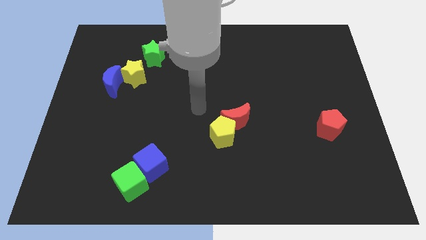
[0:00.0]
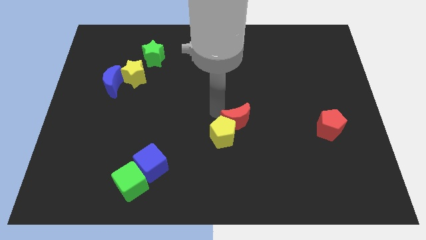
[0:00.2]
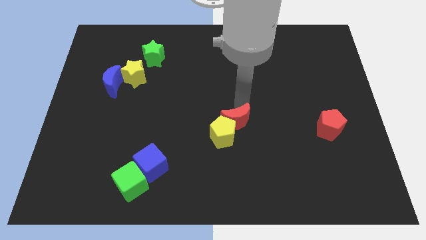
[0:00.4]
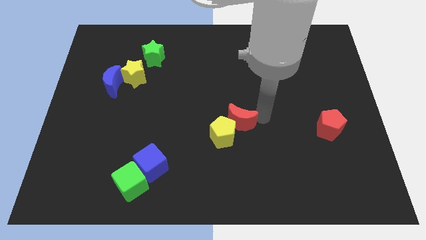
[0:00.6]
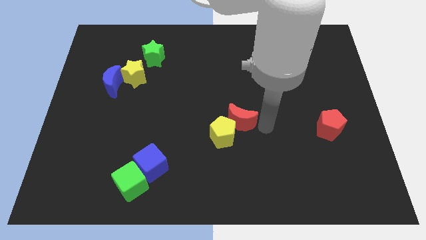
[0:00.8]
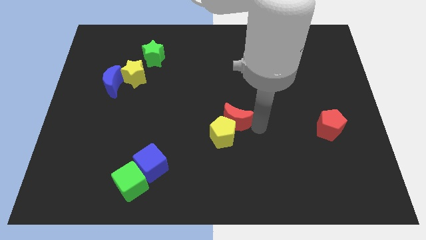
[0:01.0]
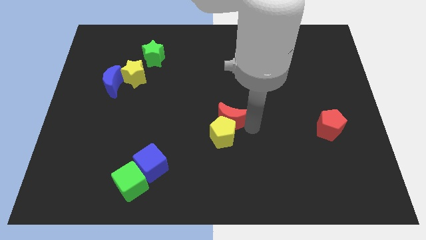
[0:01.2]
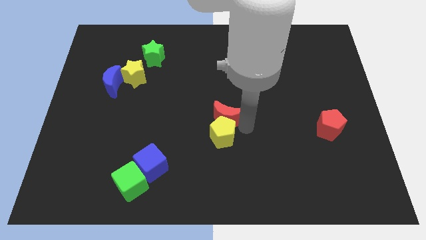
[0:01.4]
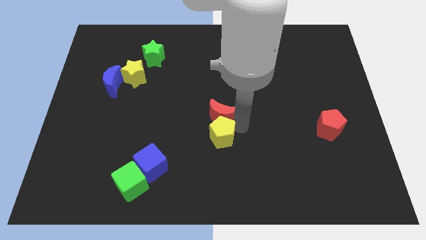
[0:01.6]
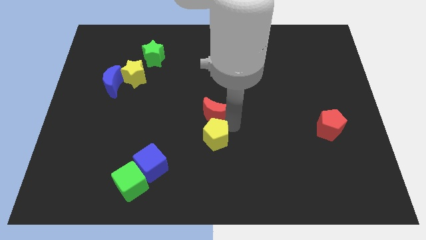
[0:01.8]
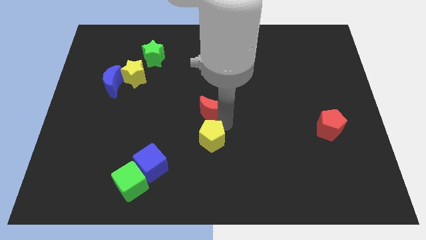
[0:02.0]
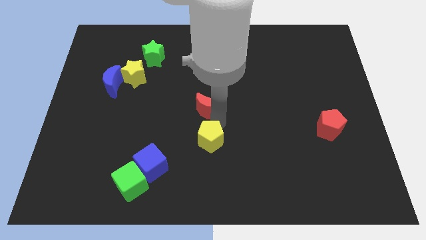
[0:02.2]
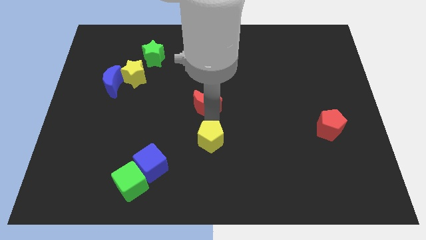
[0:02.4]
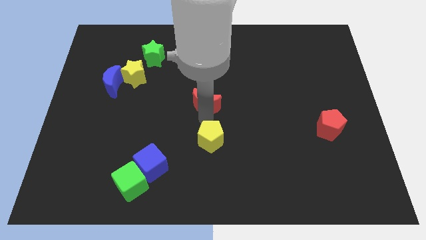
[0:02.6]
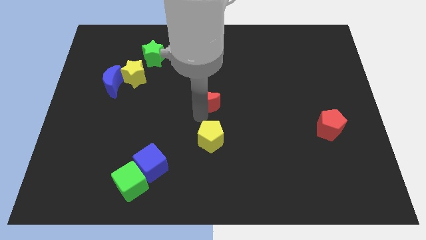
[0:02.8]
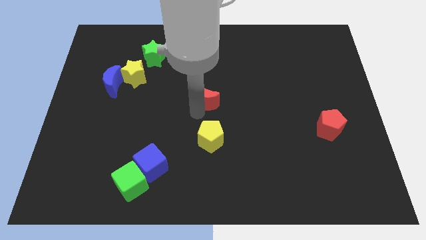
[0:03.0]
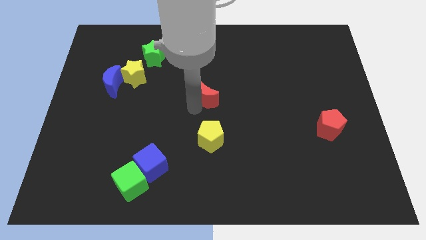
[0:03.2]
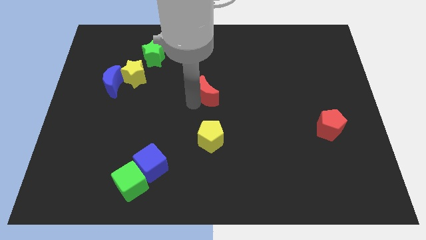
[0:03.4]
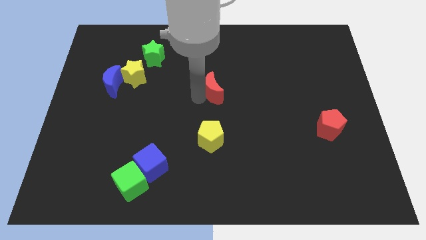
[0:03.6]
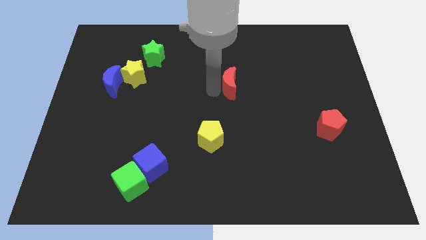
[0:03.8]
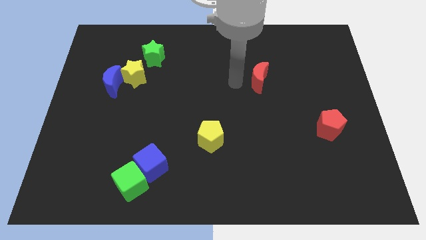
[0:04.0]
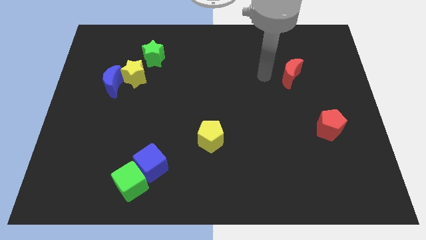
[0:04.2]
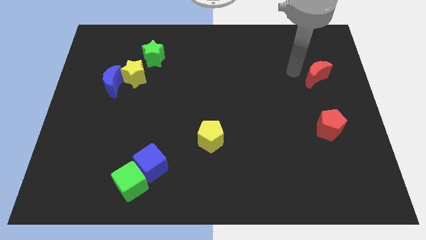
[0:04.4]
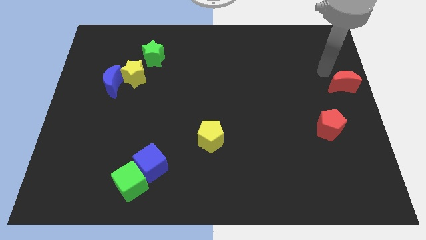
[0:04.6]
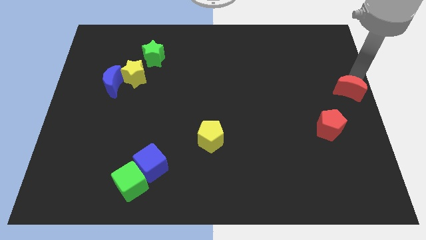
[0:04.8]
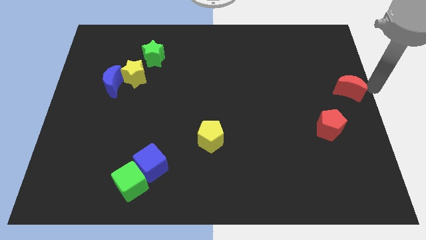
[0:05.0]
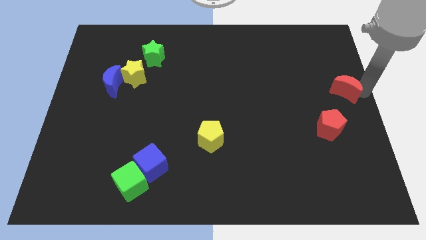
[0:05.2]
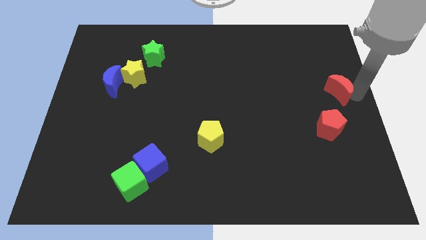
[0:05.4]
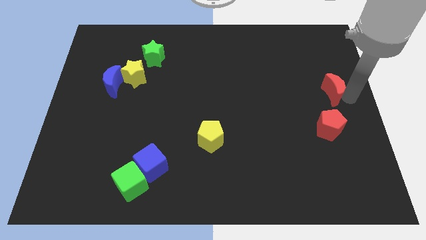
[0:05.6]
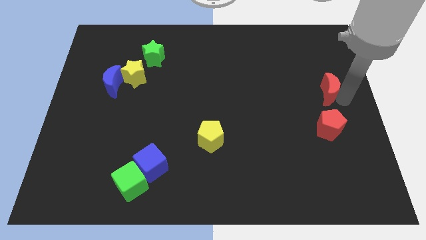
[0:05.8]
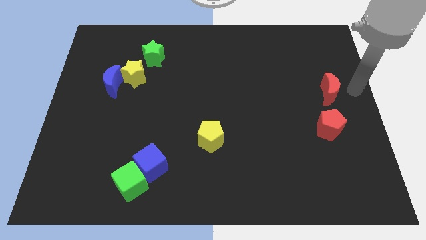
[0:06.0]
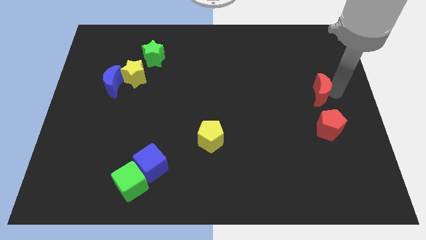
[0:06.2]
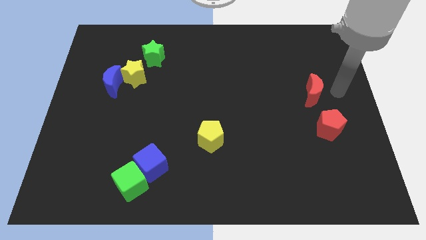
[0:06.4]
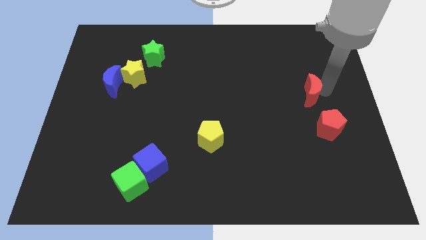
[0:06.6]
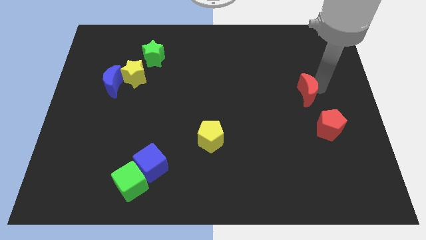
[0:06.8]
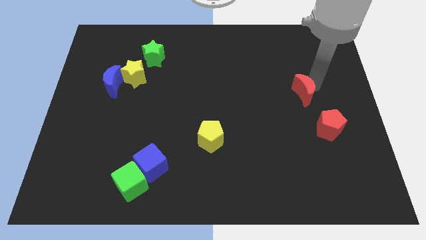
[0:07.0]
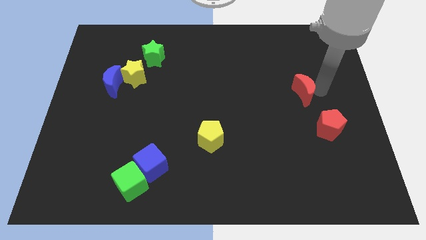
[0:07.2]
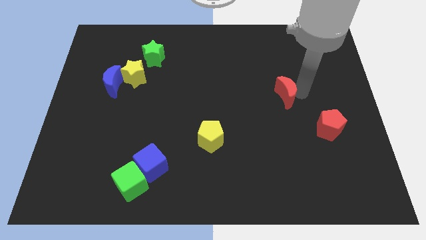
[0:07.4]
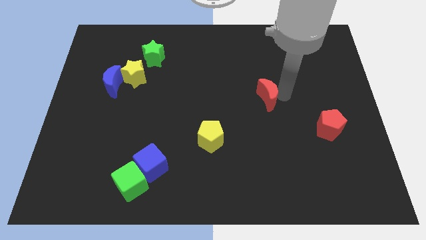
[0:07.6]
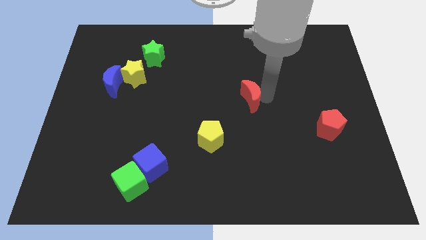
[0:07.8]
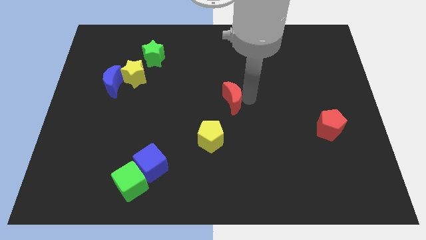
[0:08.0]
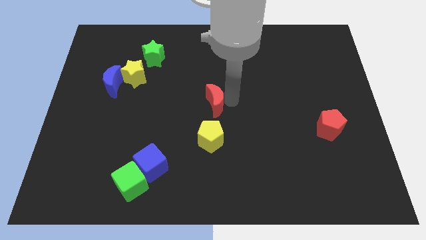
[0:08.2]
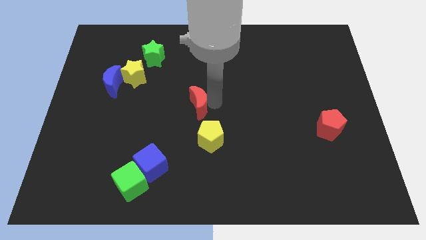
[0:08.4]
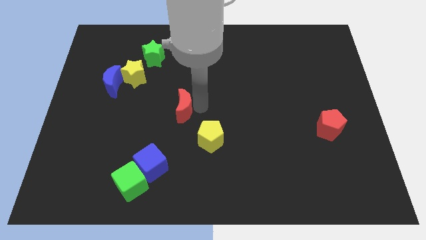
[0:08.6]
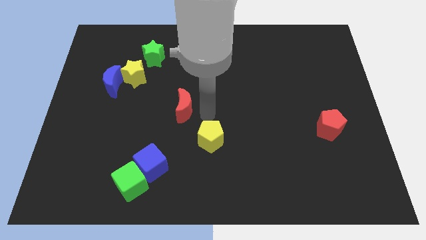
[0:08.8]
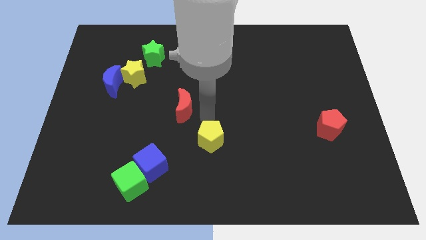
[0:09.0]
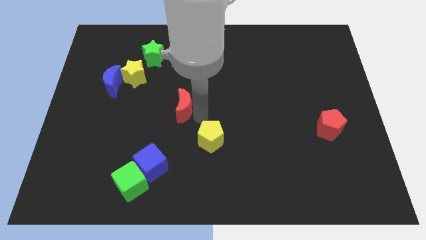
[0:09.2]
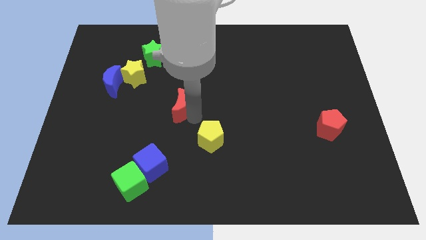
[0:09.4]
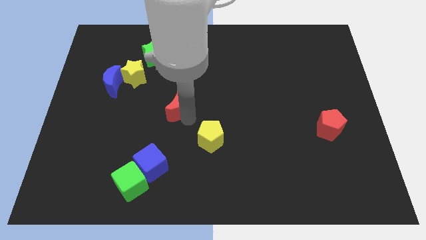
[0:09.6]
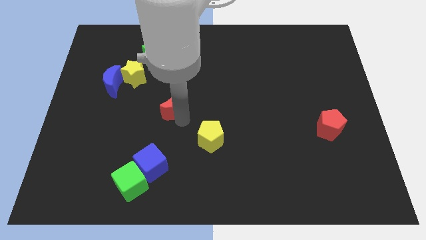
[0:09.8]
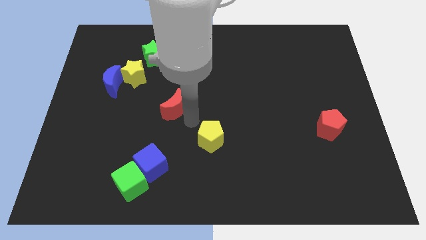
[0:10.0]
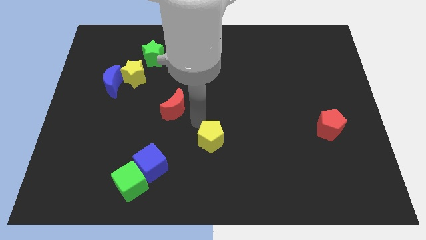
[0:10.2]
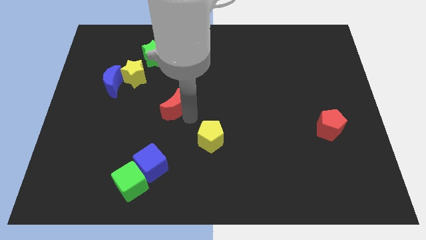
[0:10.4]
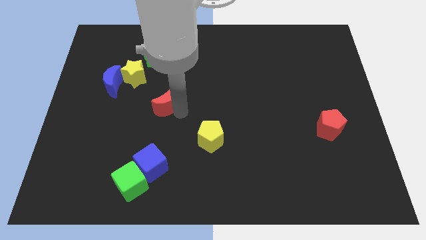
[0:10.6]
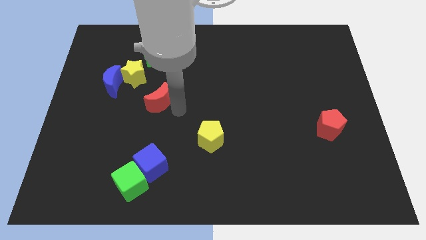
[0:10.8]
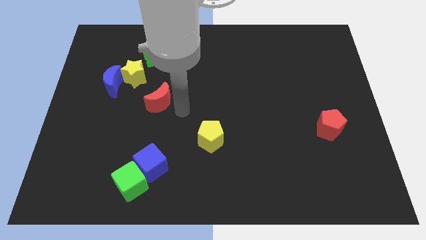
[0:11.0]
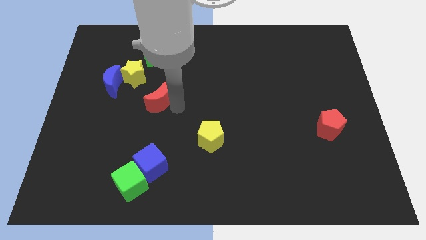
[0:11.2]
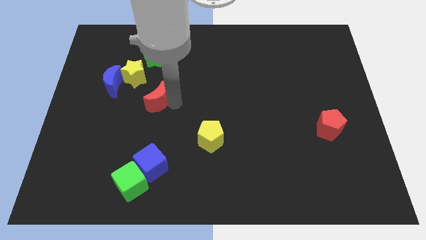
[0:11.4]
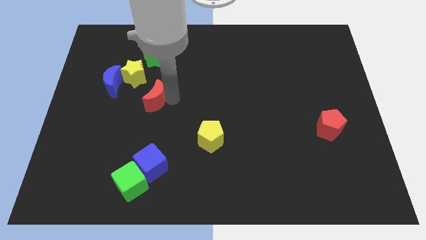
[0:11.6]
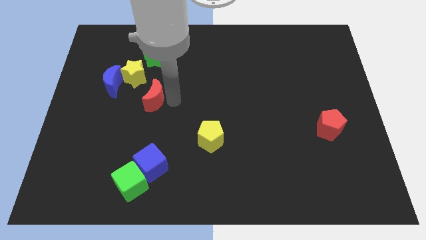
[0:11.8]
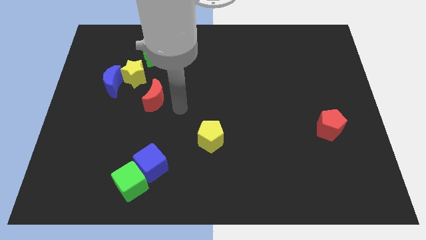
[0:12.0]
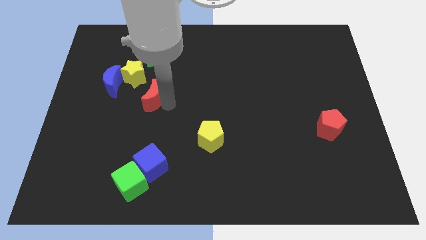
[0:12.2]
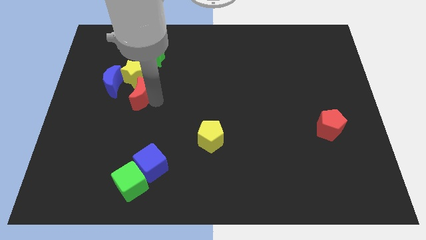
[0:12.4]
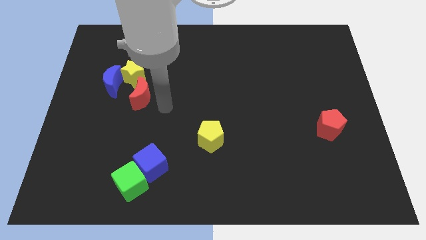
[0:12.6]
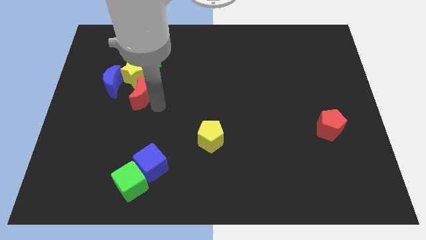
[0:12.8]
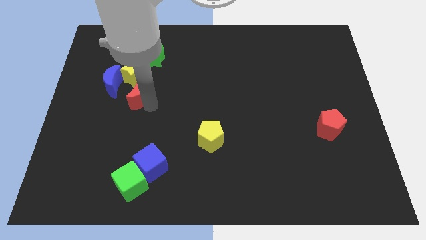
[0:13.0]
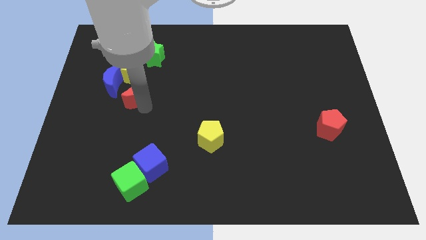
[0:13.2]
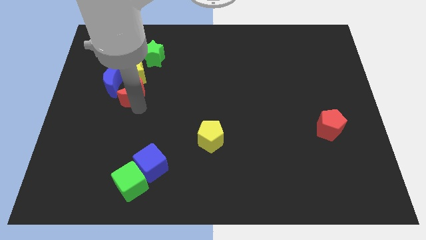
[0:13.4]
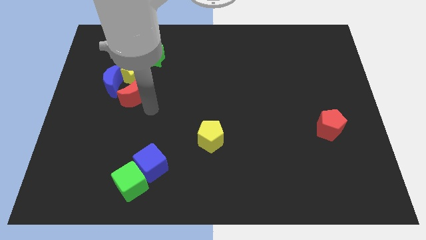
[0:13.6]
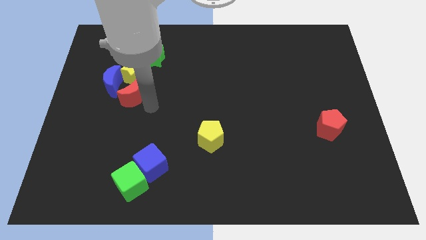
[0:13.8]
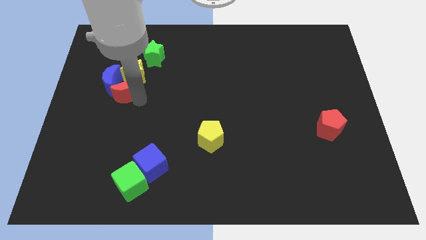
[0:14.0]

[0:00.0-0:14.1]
put the red moon close to the blue moon

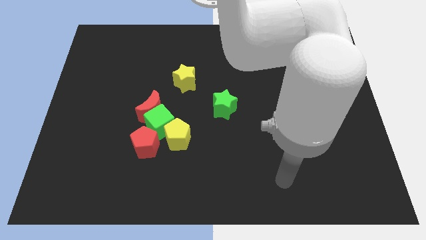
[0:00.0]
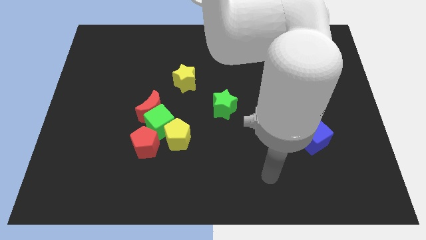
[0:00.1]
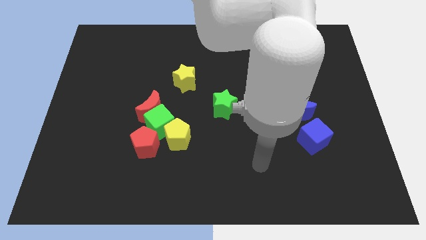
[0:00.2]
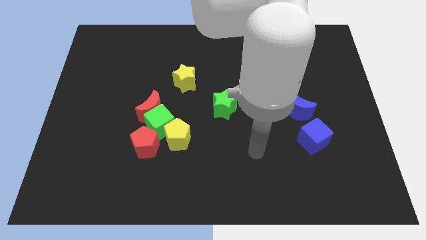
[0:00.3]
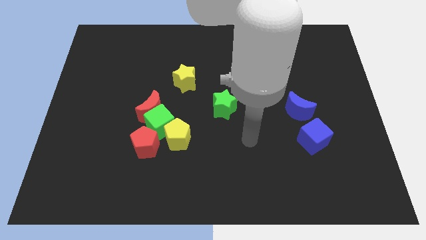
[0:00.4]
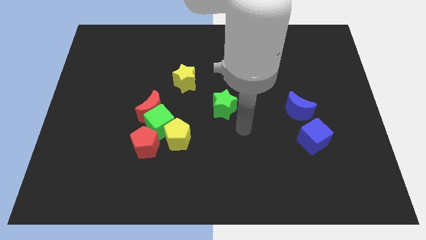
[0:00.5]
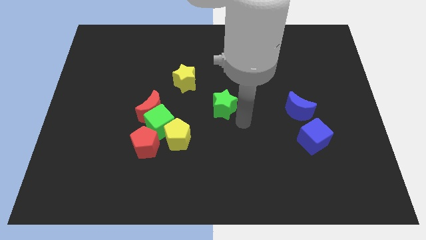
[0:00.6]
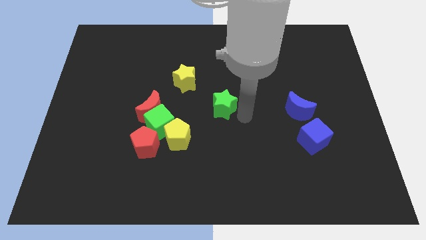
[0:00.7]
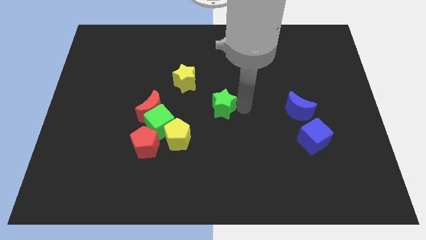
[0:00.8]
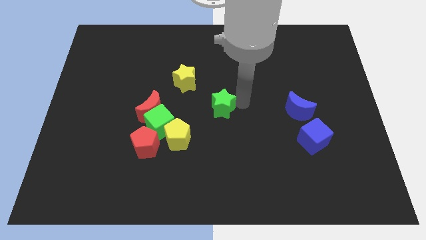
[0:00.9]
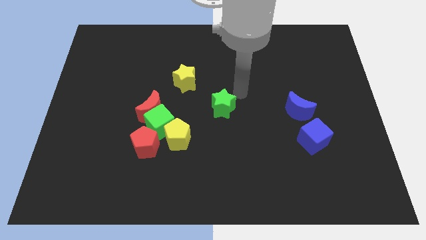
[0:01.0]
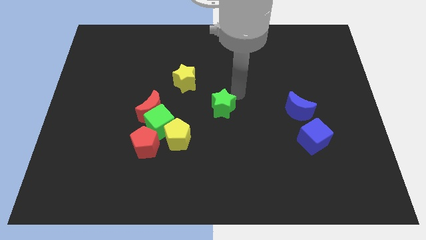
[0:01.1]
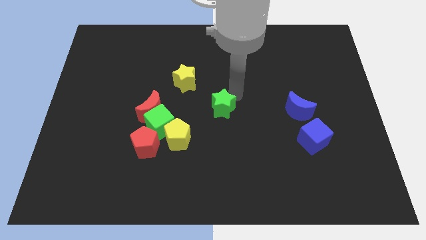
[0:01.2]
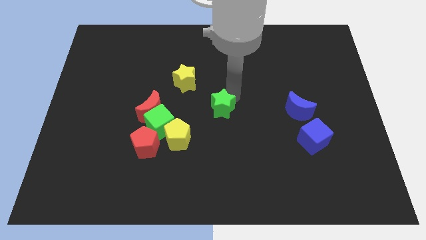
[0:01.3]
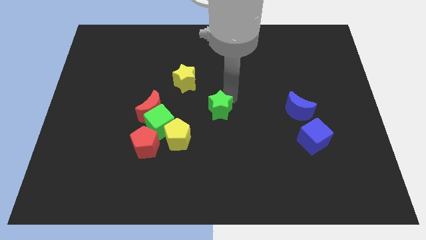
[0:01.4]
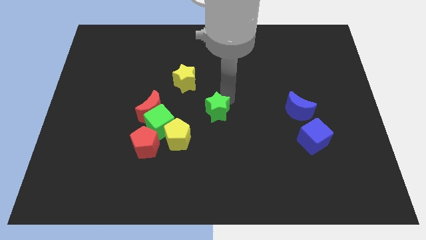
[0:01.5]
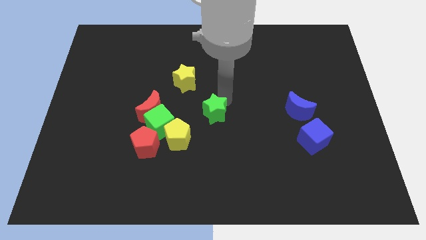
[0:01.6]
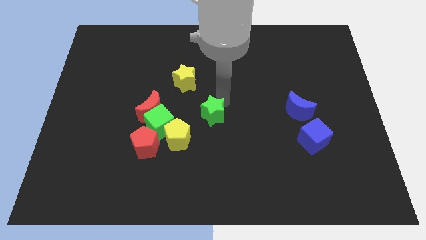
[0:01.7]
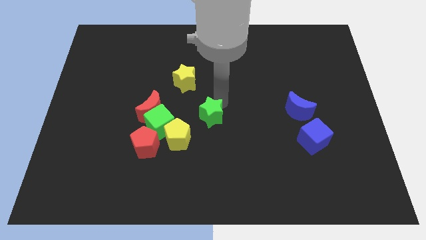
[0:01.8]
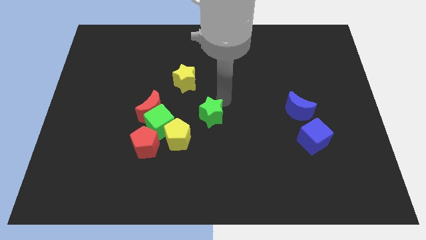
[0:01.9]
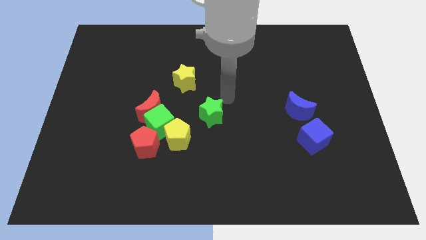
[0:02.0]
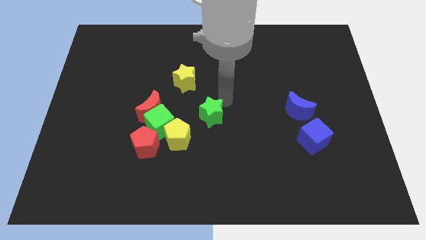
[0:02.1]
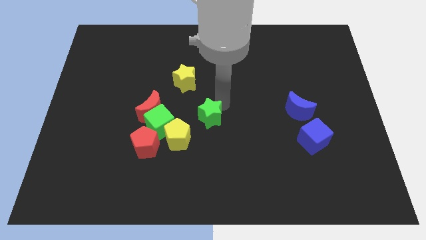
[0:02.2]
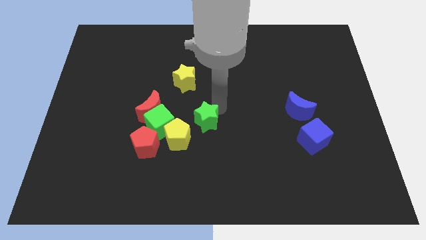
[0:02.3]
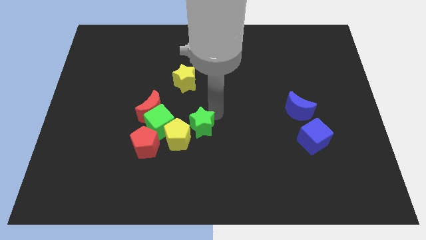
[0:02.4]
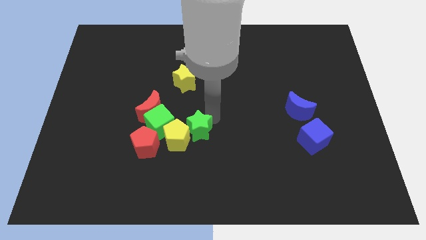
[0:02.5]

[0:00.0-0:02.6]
move the green star next to the yellow pentagon
